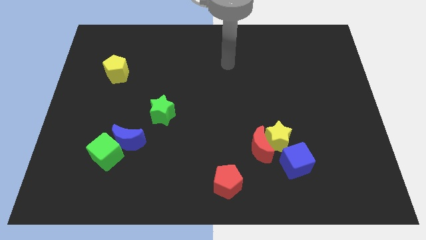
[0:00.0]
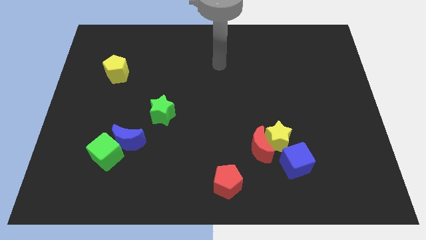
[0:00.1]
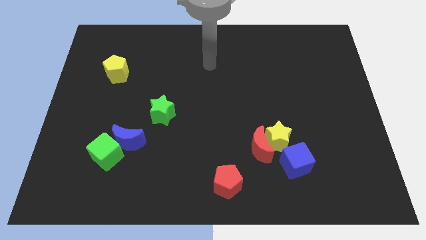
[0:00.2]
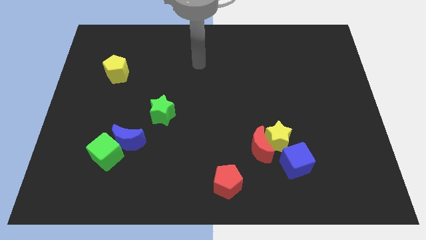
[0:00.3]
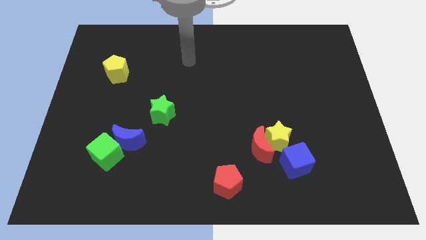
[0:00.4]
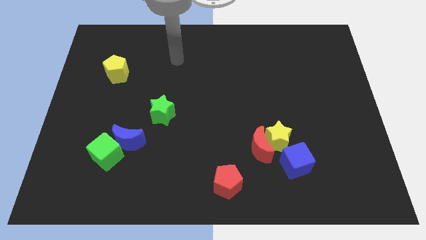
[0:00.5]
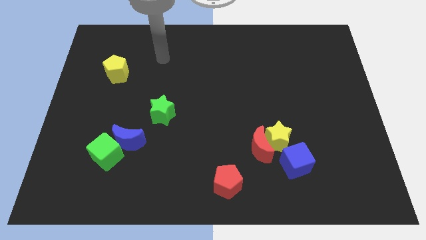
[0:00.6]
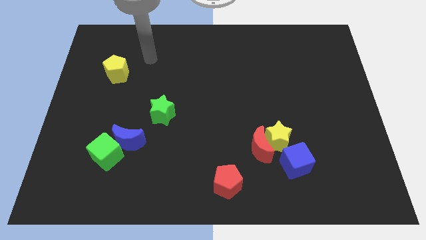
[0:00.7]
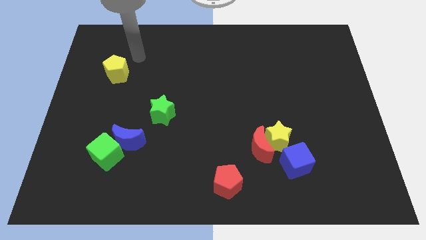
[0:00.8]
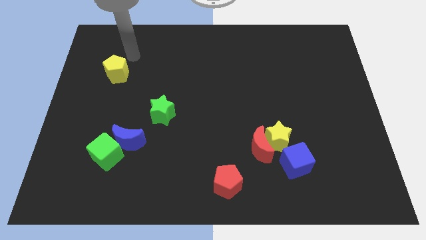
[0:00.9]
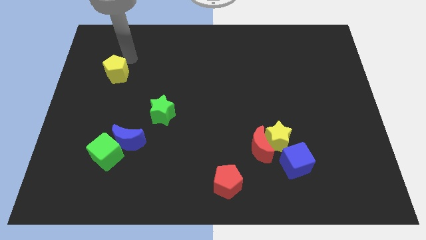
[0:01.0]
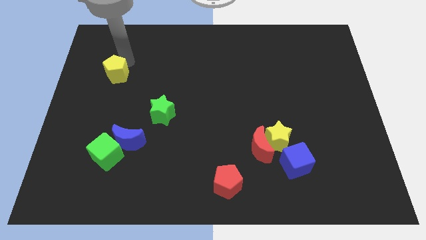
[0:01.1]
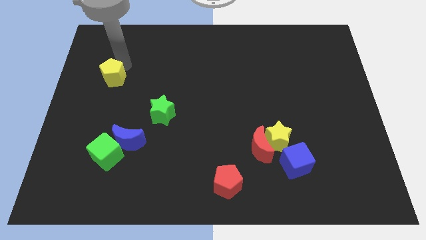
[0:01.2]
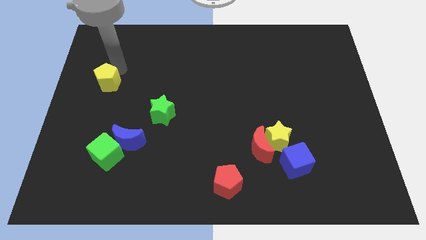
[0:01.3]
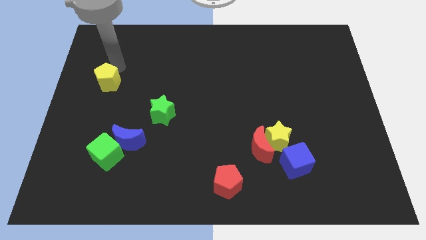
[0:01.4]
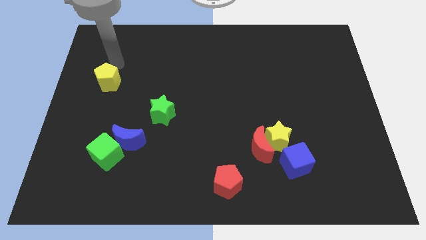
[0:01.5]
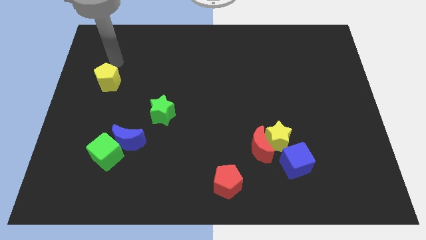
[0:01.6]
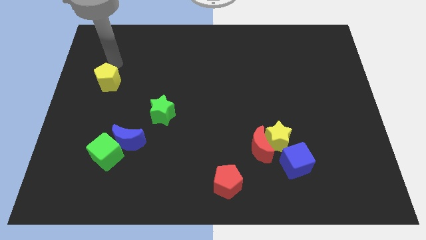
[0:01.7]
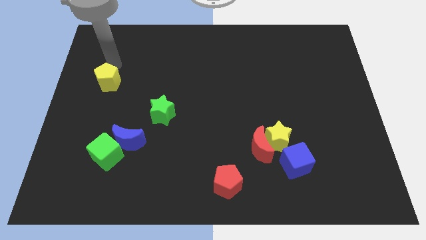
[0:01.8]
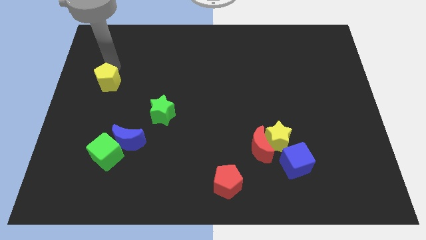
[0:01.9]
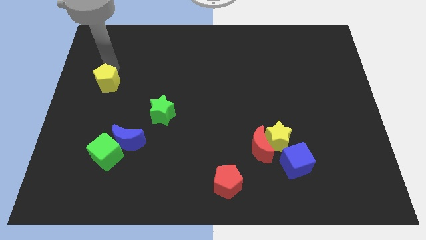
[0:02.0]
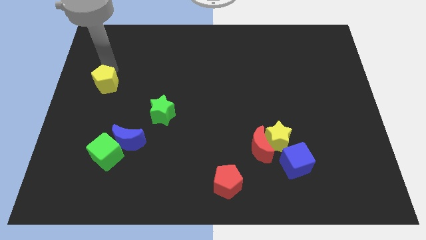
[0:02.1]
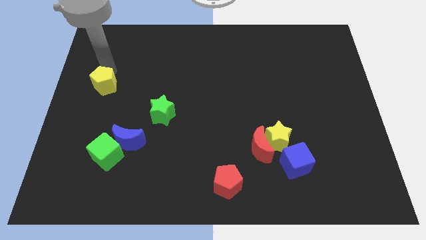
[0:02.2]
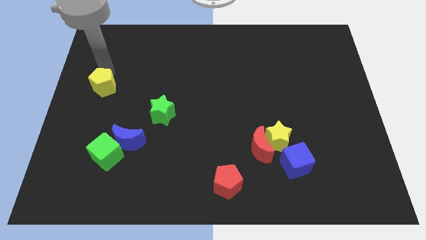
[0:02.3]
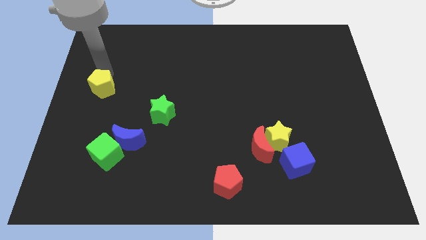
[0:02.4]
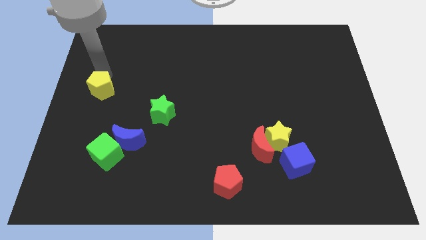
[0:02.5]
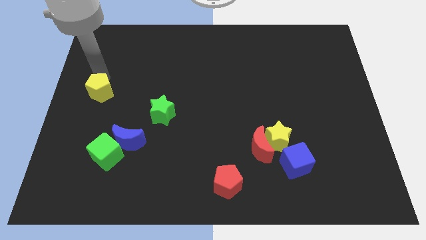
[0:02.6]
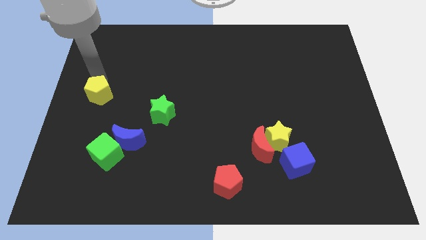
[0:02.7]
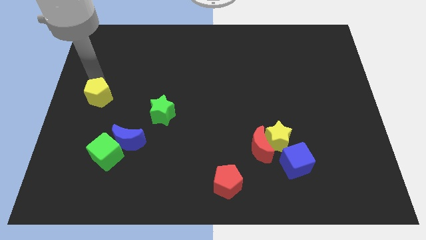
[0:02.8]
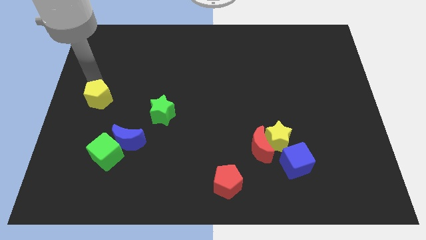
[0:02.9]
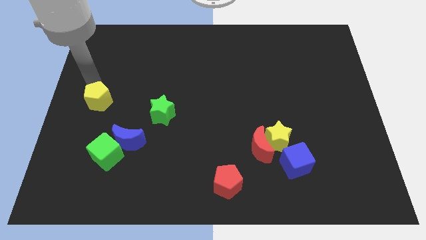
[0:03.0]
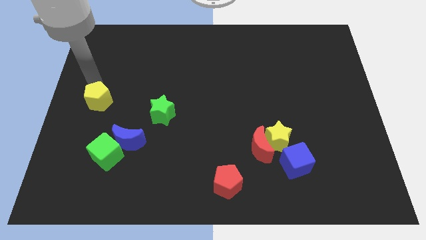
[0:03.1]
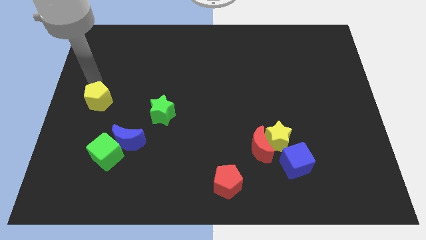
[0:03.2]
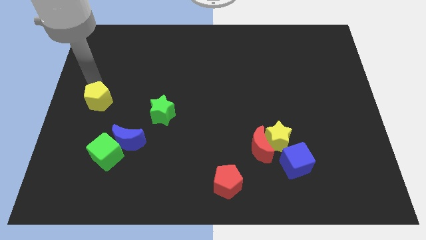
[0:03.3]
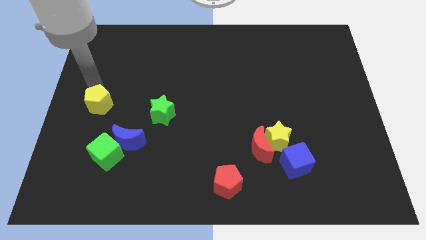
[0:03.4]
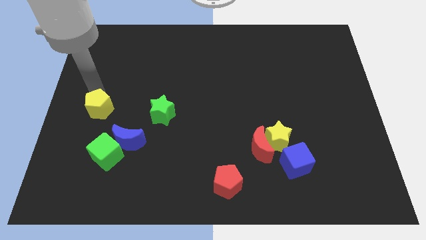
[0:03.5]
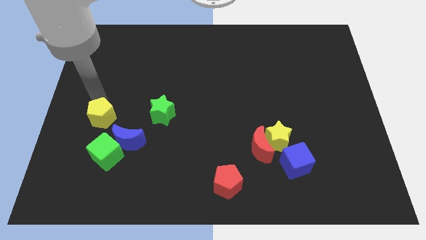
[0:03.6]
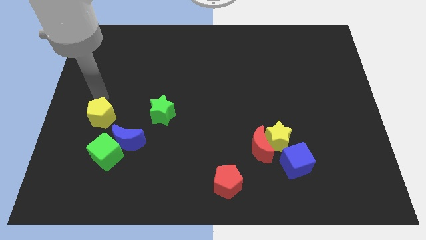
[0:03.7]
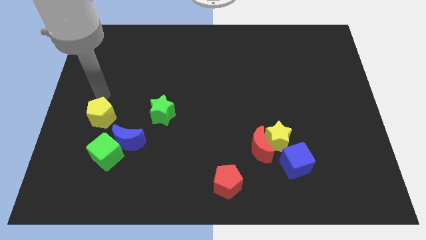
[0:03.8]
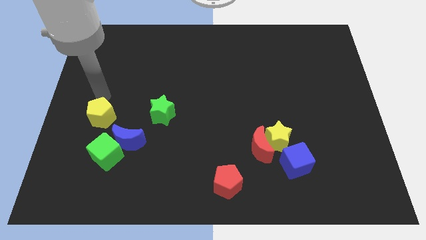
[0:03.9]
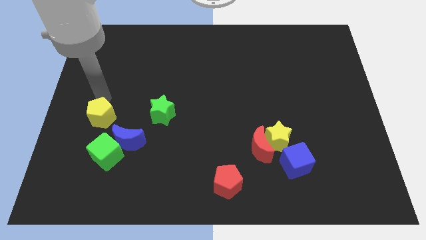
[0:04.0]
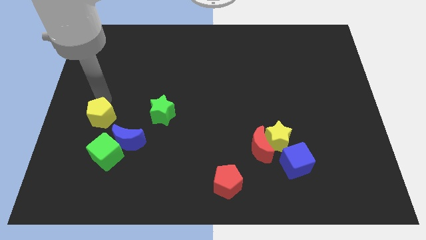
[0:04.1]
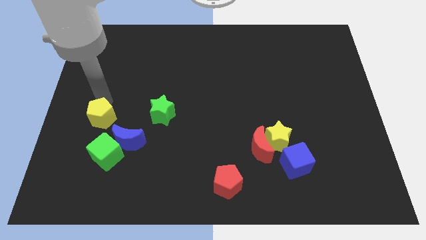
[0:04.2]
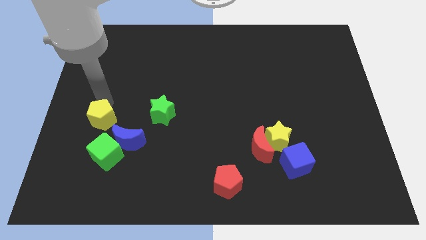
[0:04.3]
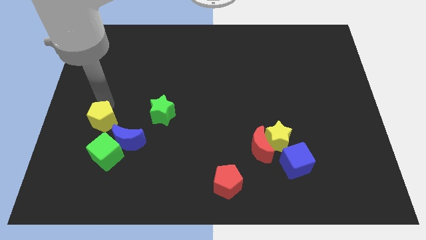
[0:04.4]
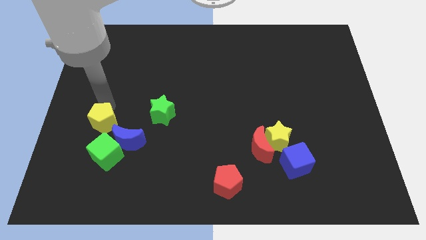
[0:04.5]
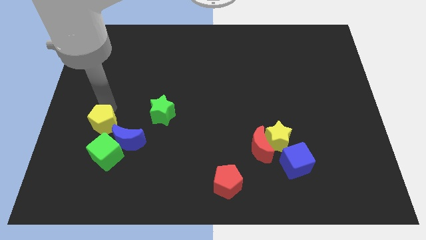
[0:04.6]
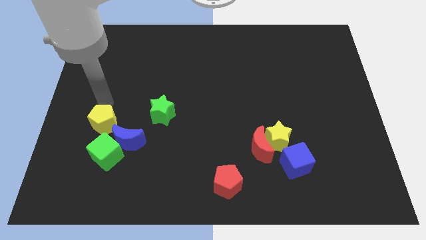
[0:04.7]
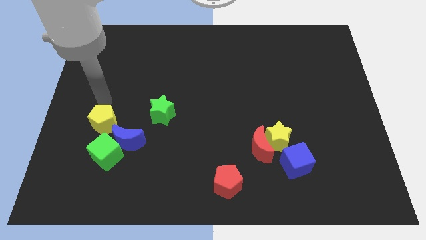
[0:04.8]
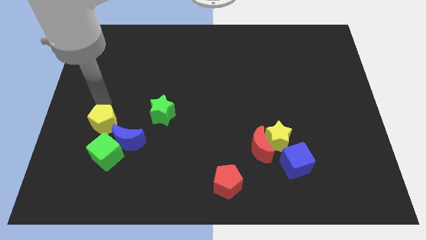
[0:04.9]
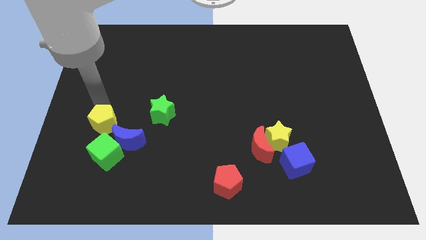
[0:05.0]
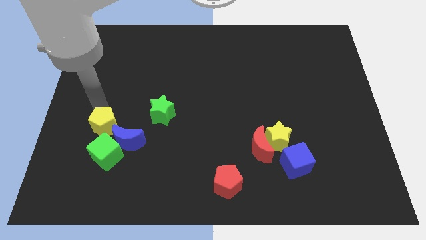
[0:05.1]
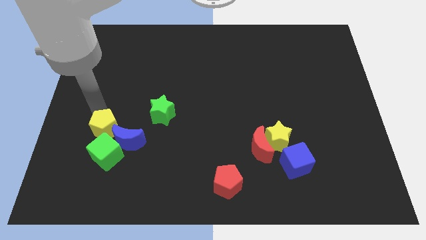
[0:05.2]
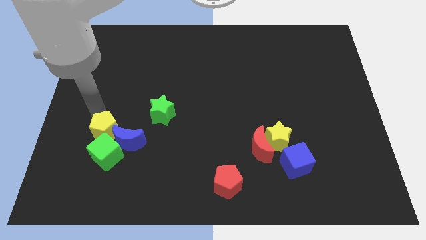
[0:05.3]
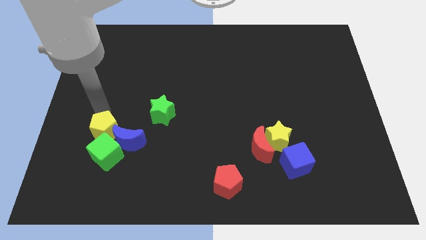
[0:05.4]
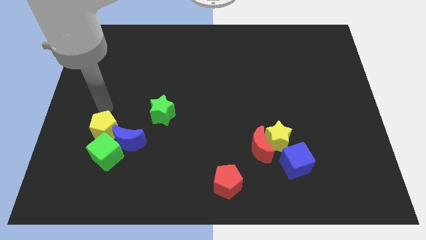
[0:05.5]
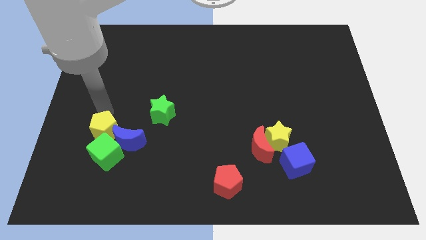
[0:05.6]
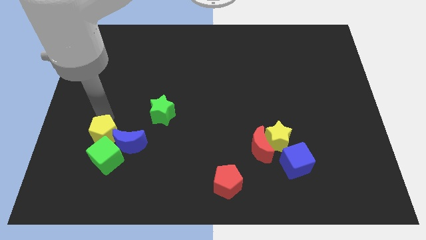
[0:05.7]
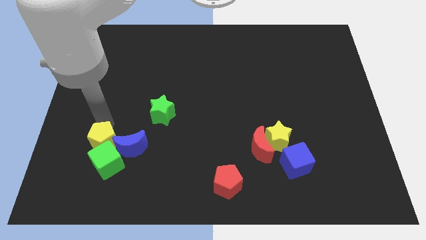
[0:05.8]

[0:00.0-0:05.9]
slide the yellow pentagon next to the green cube

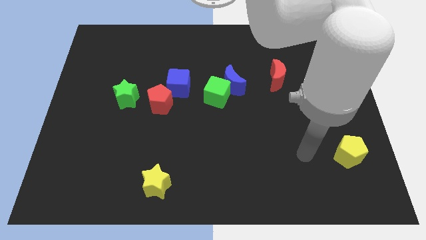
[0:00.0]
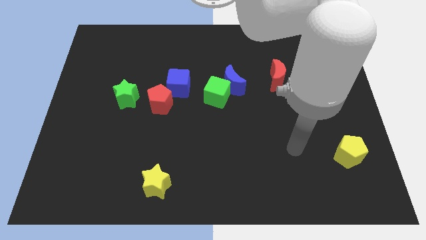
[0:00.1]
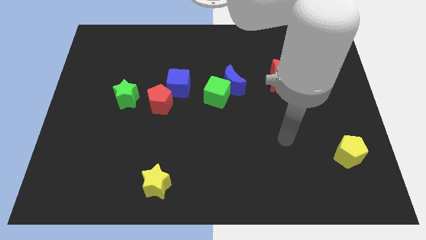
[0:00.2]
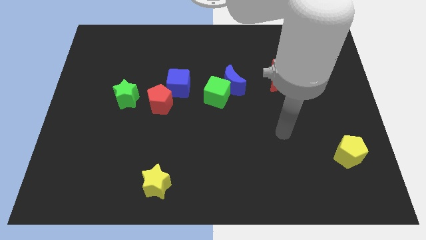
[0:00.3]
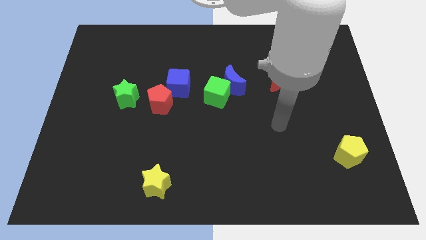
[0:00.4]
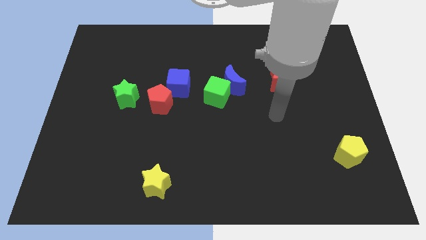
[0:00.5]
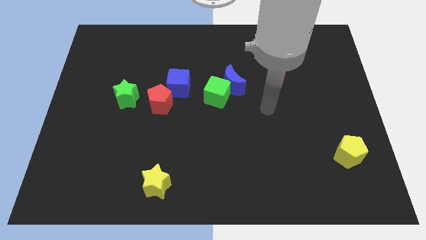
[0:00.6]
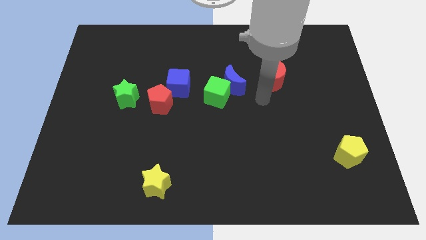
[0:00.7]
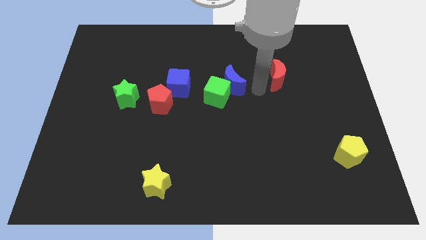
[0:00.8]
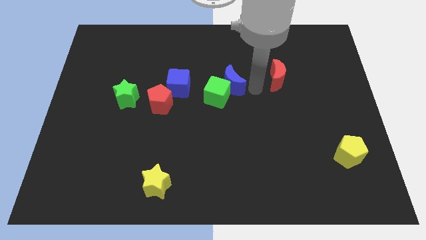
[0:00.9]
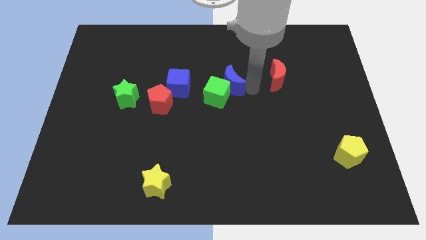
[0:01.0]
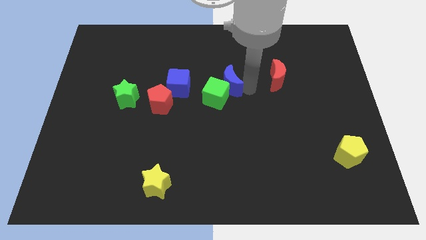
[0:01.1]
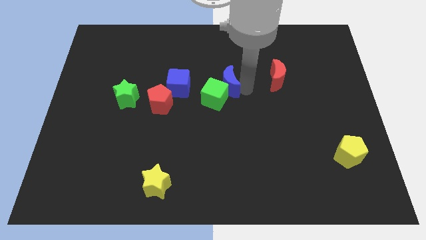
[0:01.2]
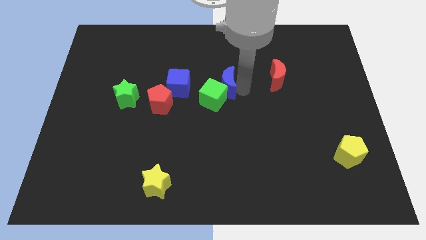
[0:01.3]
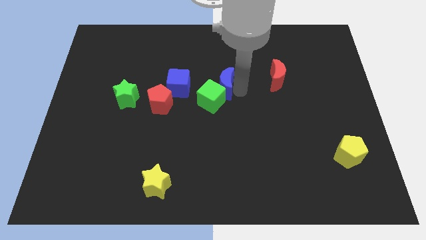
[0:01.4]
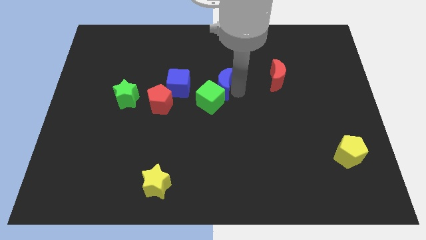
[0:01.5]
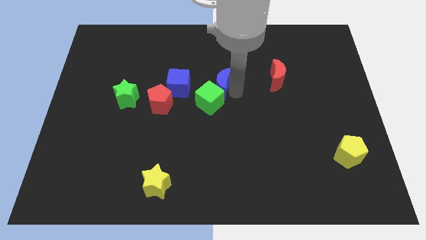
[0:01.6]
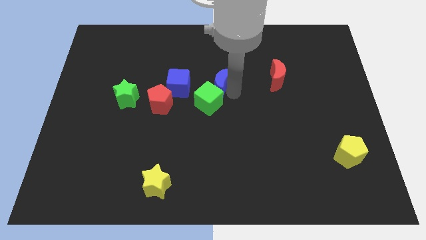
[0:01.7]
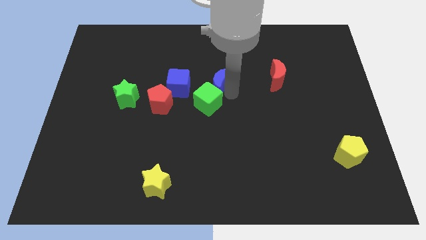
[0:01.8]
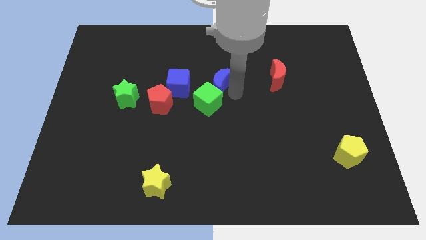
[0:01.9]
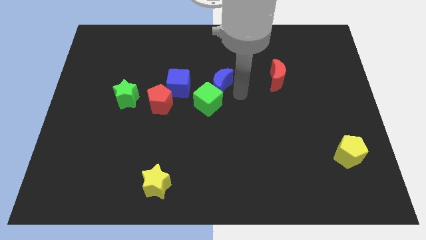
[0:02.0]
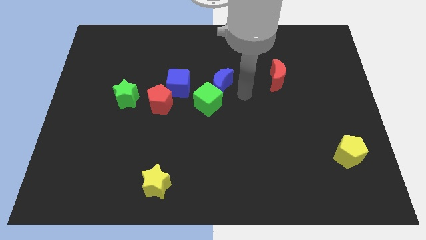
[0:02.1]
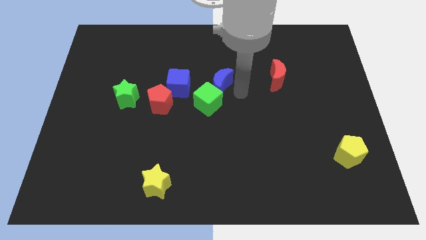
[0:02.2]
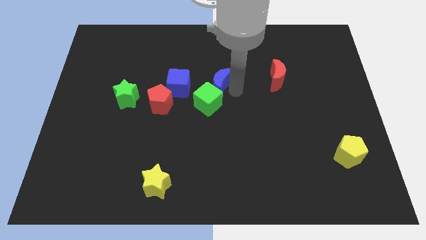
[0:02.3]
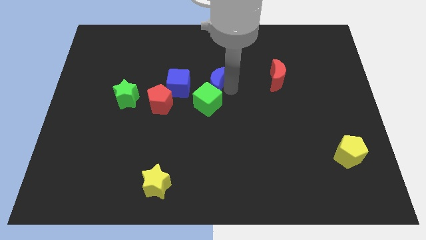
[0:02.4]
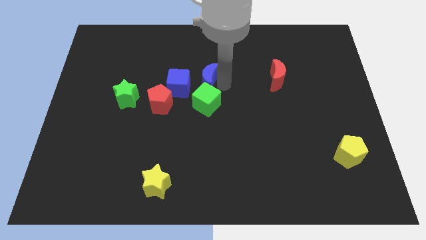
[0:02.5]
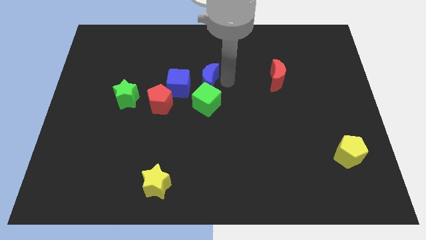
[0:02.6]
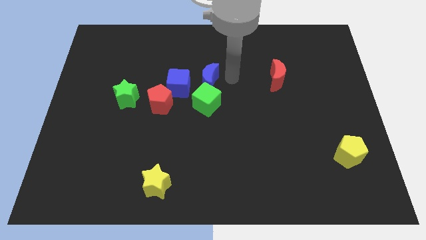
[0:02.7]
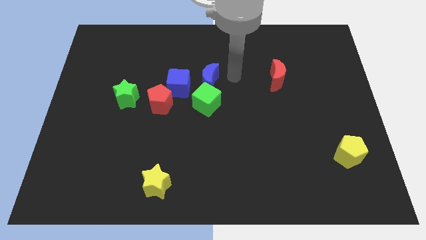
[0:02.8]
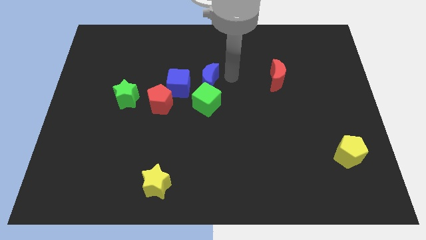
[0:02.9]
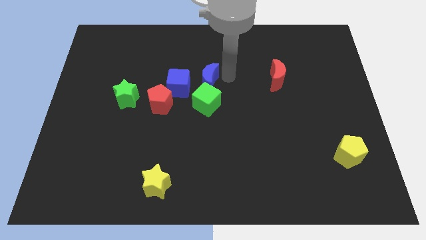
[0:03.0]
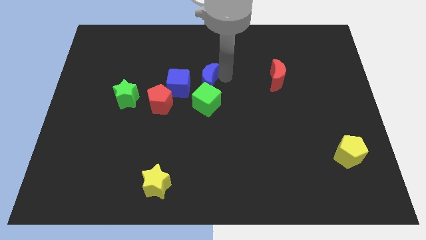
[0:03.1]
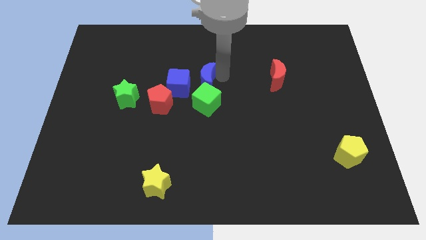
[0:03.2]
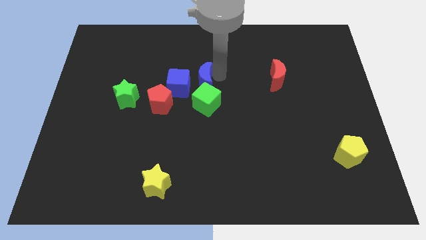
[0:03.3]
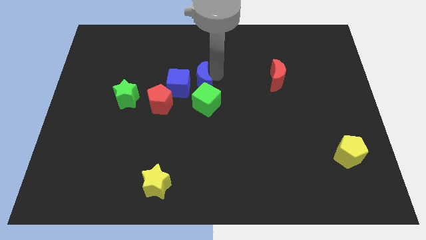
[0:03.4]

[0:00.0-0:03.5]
move the blue moon next to the blue cube
